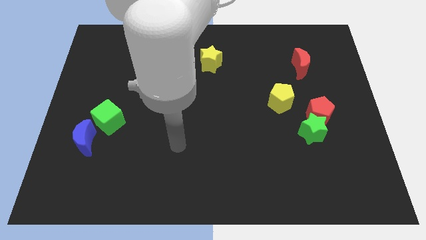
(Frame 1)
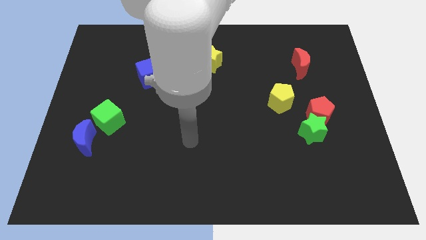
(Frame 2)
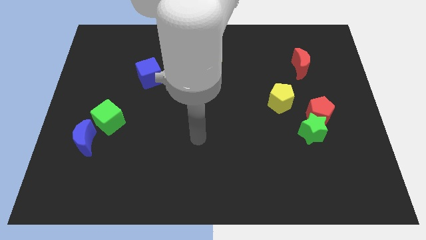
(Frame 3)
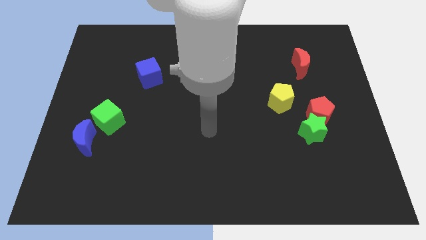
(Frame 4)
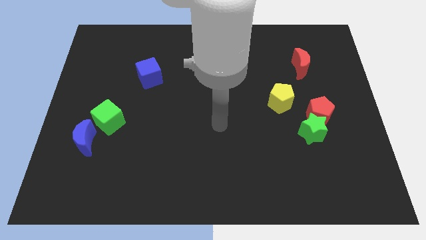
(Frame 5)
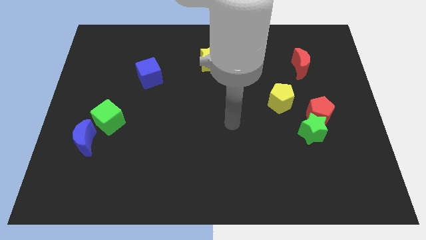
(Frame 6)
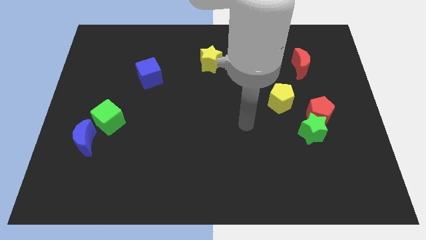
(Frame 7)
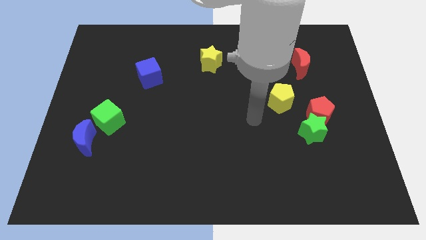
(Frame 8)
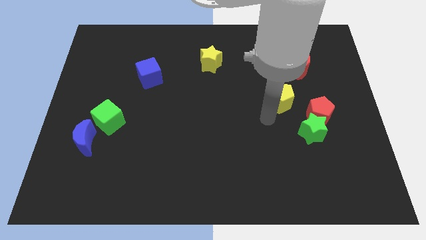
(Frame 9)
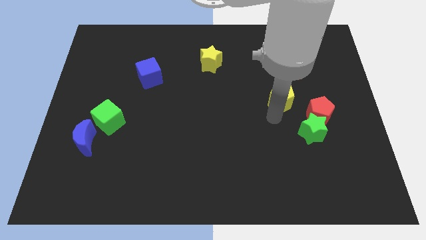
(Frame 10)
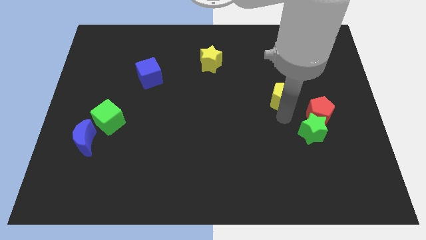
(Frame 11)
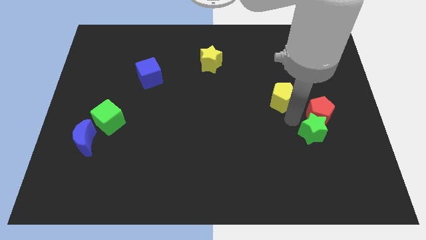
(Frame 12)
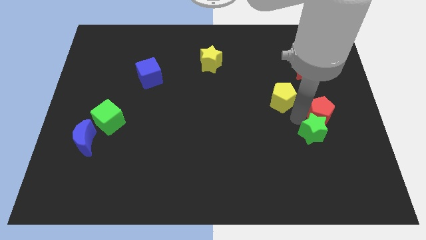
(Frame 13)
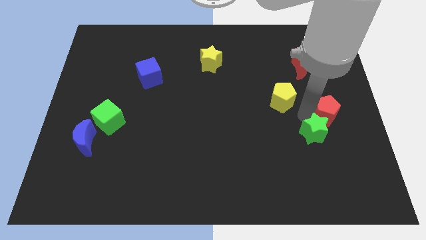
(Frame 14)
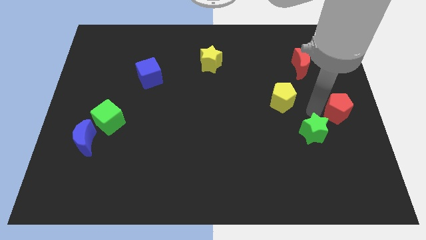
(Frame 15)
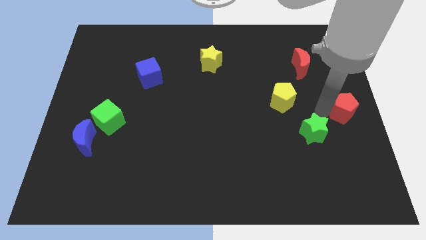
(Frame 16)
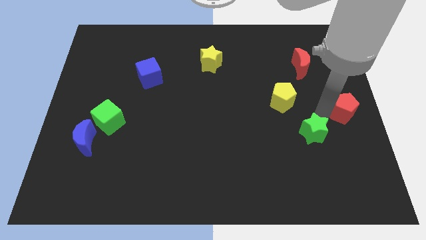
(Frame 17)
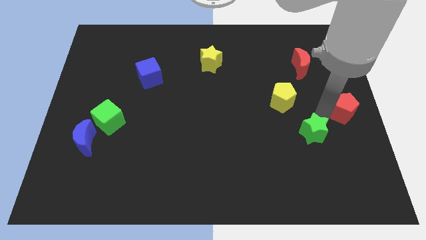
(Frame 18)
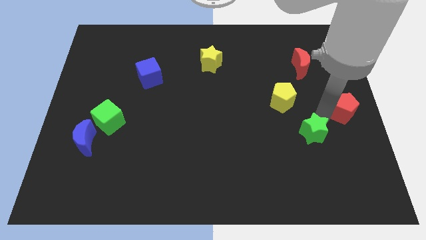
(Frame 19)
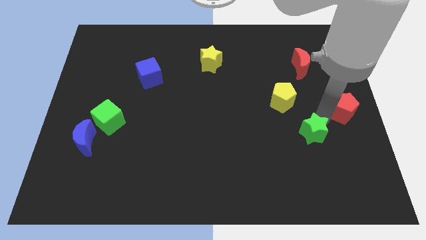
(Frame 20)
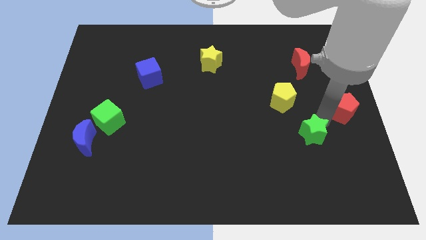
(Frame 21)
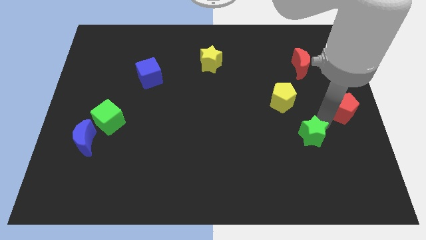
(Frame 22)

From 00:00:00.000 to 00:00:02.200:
separate the green star from the red pentagon

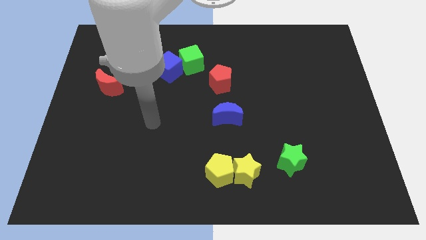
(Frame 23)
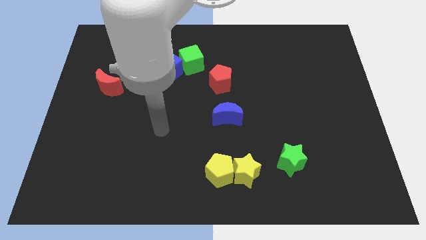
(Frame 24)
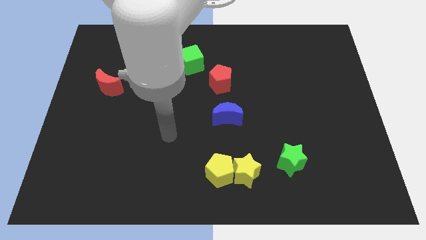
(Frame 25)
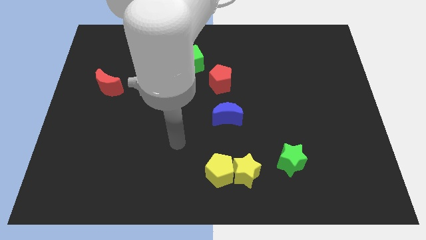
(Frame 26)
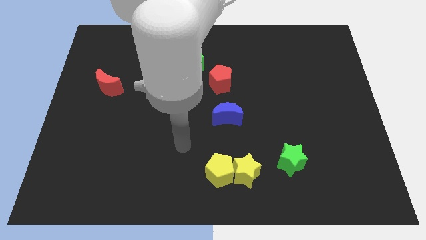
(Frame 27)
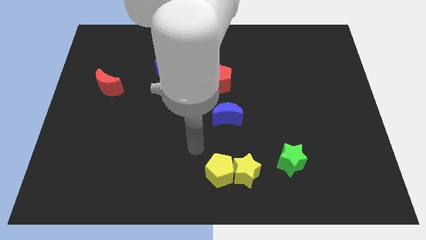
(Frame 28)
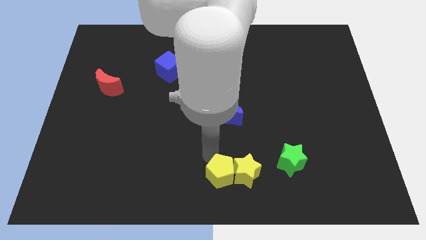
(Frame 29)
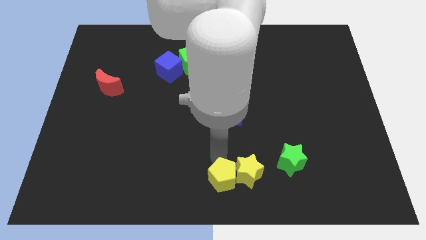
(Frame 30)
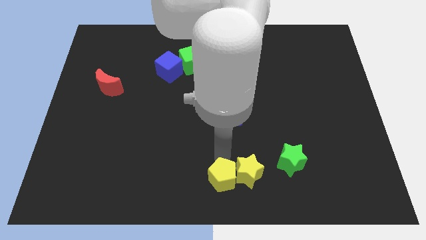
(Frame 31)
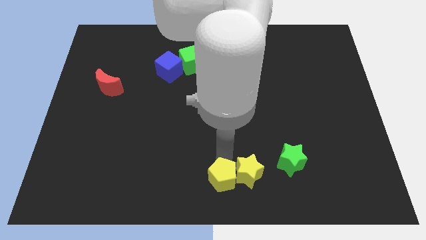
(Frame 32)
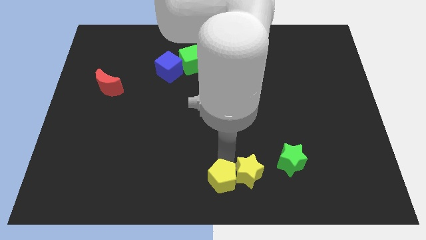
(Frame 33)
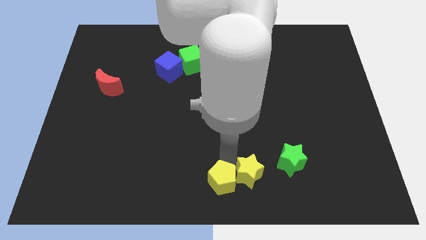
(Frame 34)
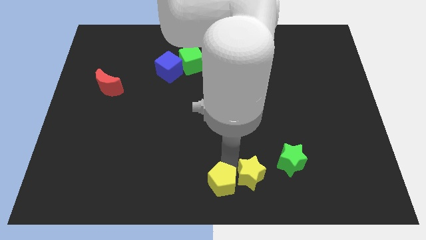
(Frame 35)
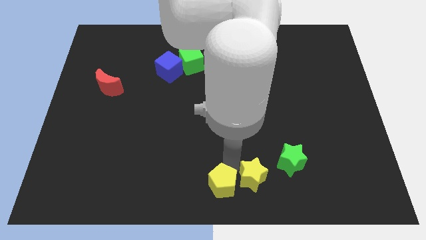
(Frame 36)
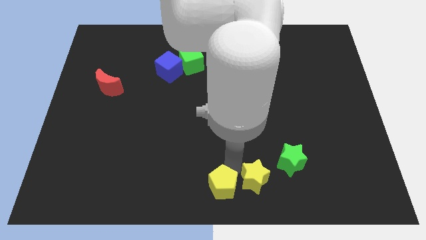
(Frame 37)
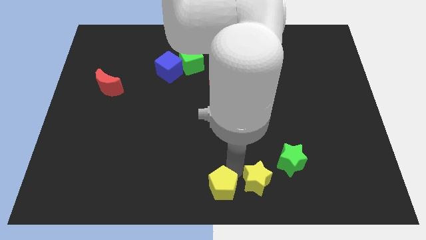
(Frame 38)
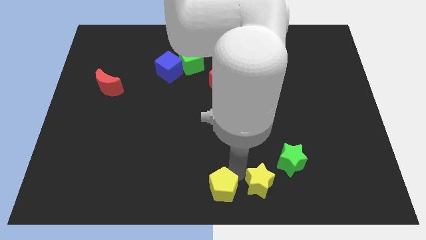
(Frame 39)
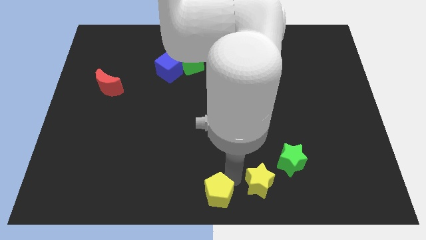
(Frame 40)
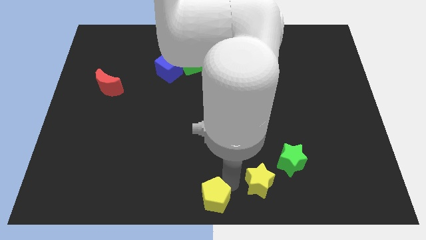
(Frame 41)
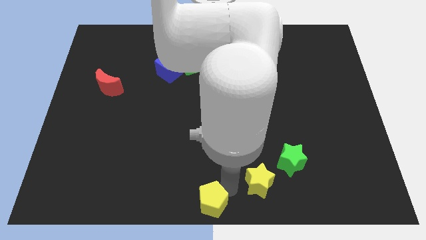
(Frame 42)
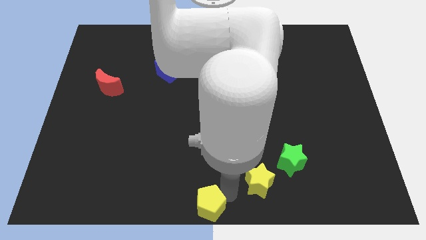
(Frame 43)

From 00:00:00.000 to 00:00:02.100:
move the yellow star away from the yellow pentagon

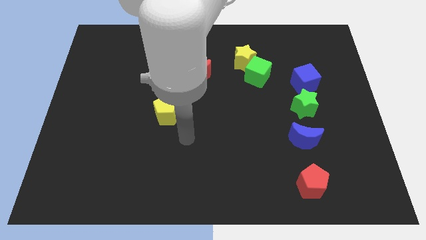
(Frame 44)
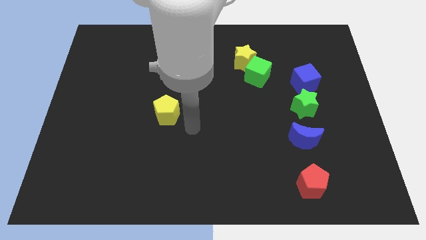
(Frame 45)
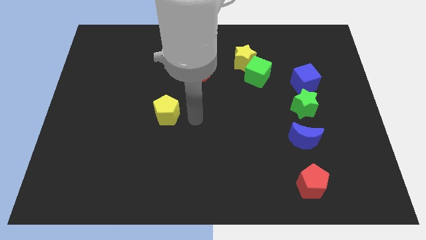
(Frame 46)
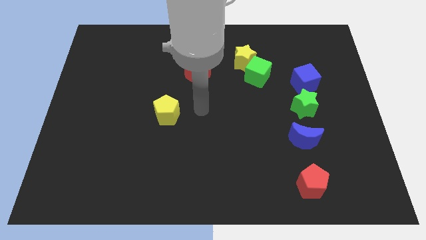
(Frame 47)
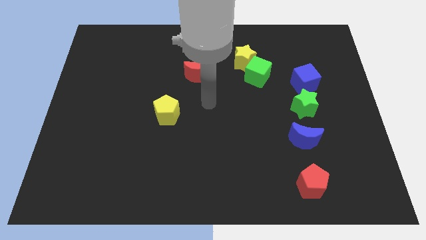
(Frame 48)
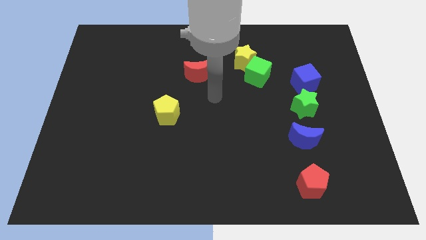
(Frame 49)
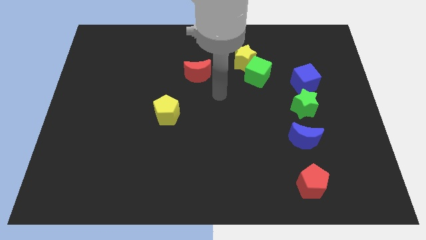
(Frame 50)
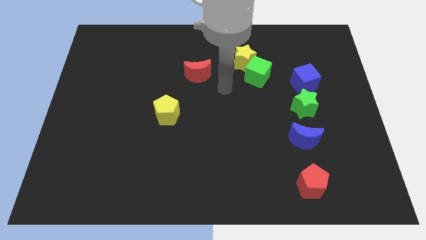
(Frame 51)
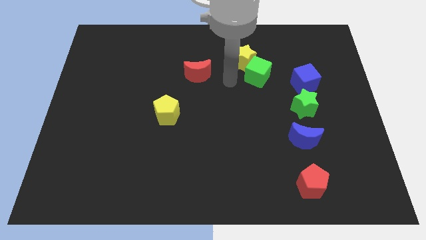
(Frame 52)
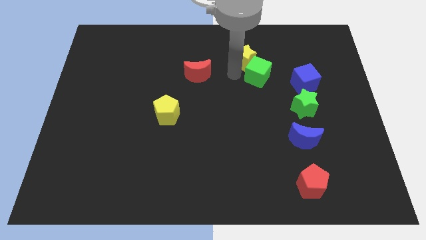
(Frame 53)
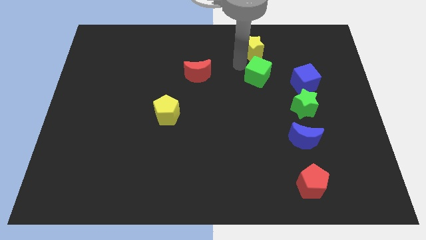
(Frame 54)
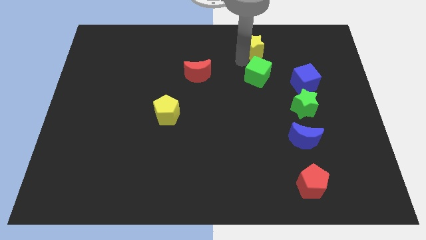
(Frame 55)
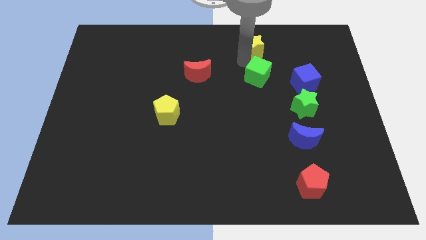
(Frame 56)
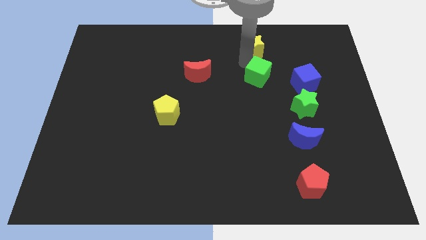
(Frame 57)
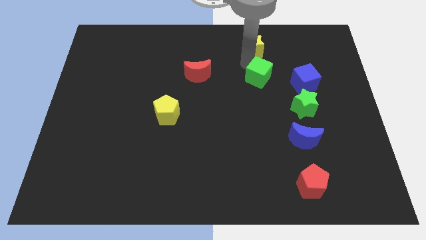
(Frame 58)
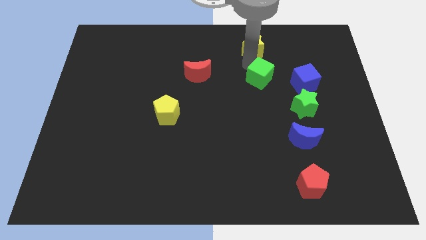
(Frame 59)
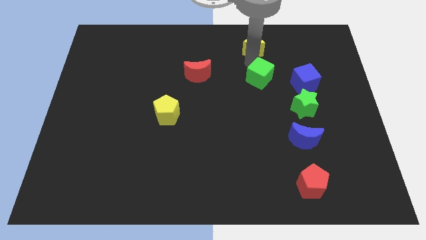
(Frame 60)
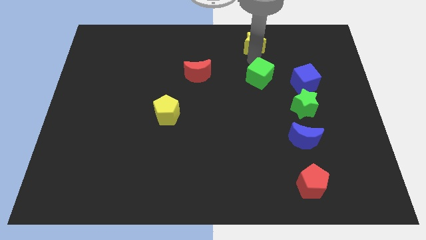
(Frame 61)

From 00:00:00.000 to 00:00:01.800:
pull the green cube apart from the yellow star

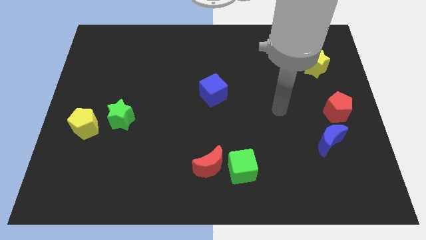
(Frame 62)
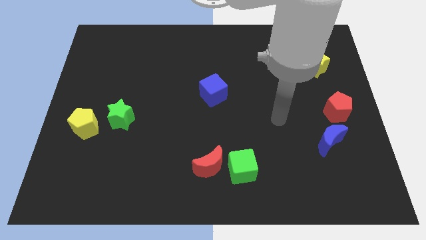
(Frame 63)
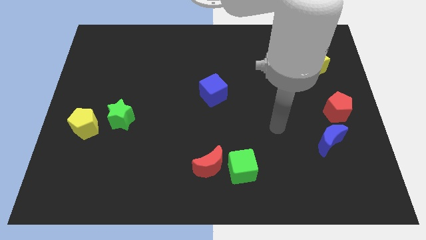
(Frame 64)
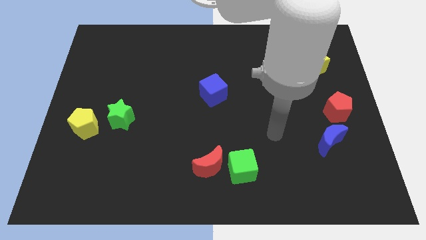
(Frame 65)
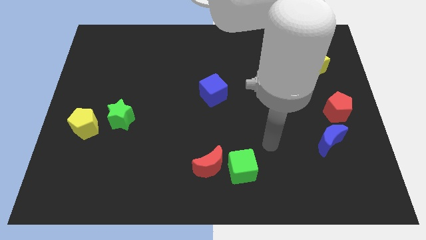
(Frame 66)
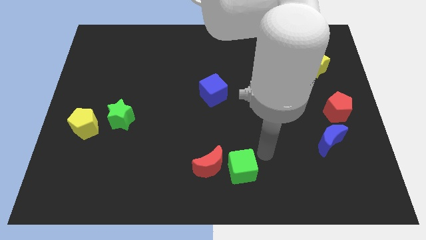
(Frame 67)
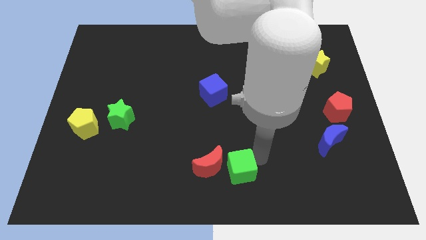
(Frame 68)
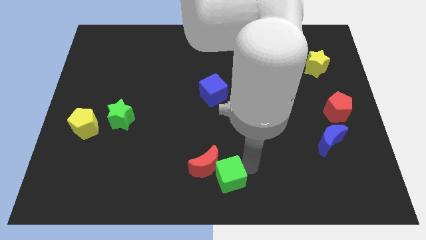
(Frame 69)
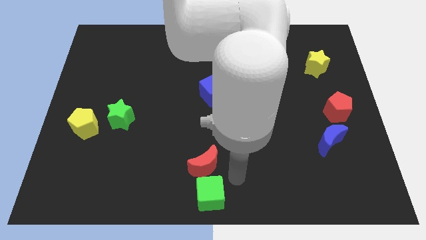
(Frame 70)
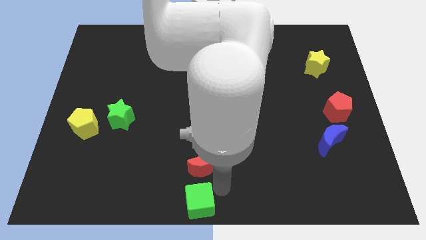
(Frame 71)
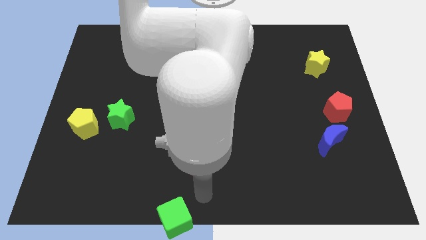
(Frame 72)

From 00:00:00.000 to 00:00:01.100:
separate the red moon from the green cube

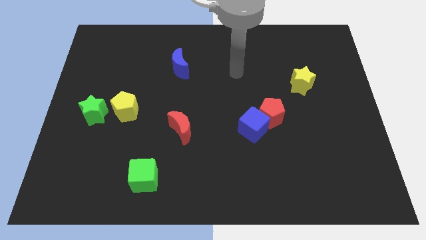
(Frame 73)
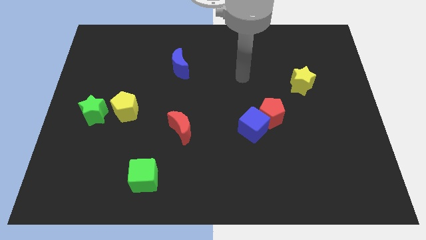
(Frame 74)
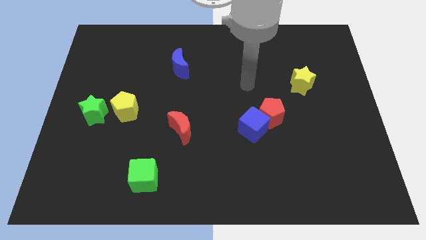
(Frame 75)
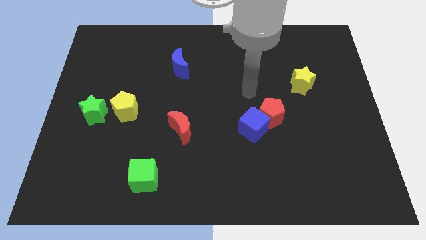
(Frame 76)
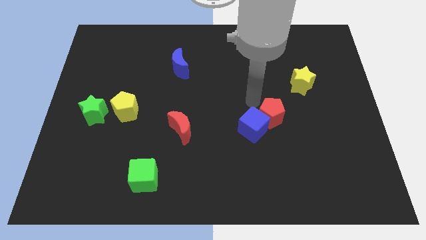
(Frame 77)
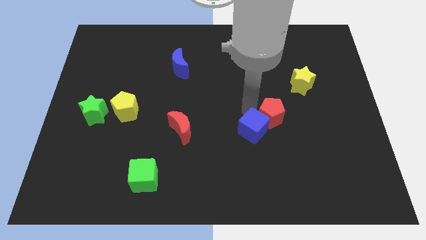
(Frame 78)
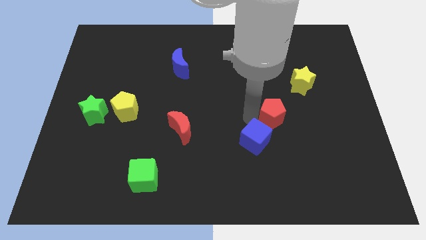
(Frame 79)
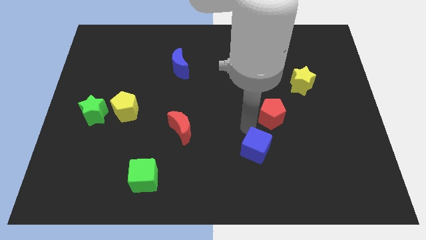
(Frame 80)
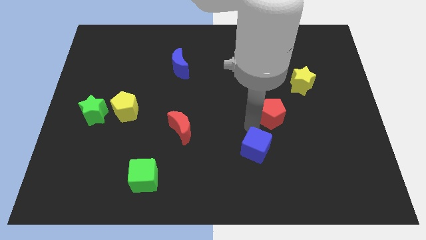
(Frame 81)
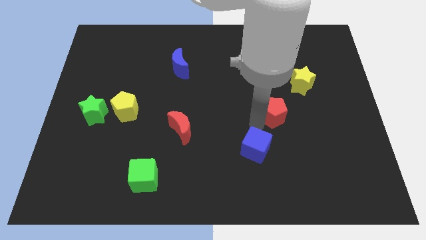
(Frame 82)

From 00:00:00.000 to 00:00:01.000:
move the red pentagon away from the blue cube

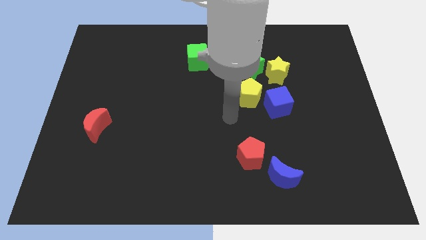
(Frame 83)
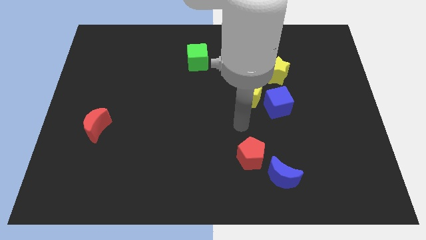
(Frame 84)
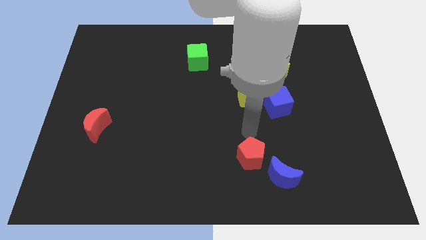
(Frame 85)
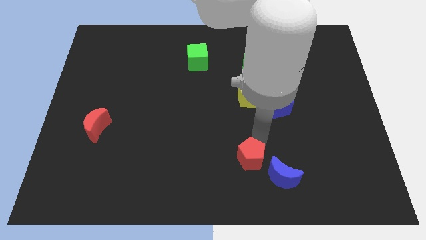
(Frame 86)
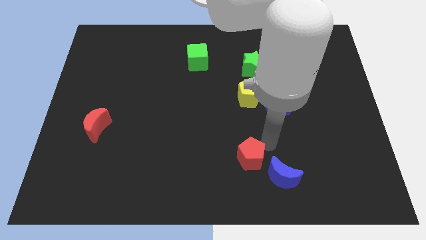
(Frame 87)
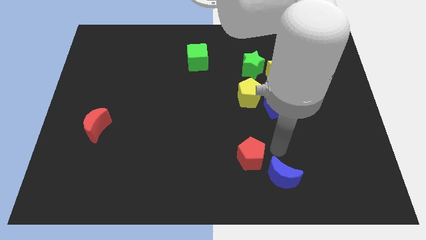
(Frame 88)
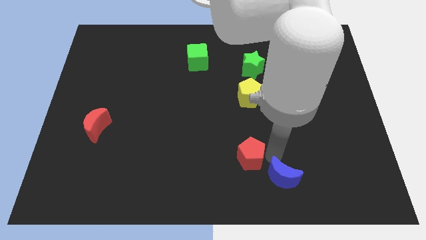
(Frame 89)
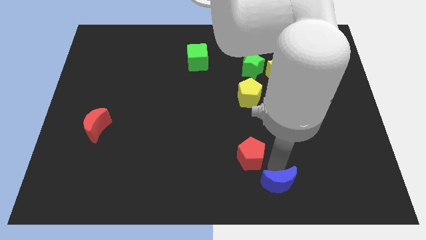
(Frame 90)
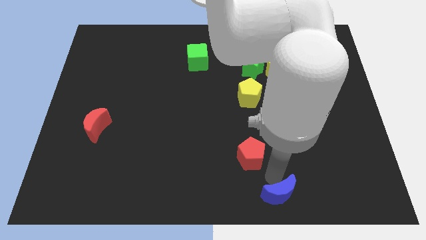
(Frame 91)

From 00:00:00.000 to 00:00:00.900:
separate the red pentagon from the blue moon
